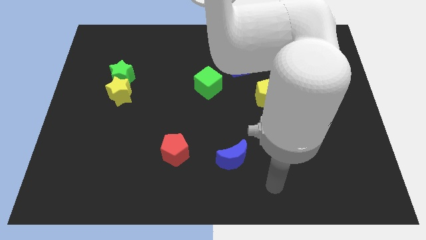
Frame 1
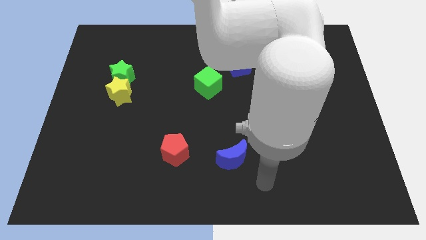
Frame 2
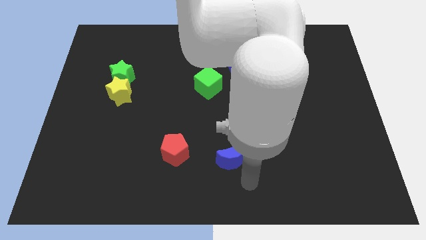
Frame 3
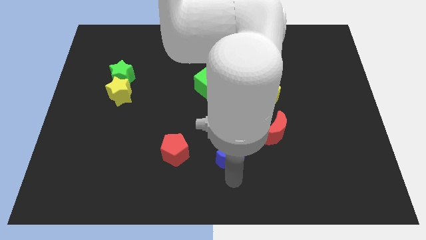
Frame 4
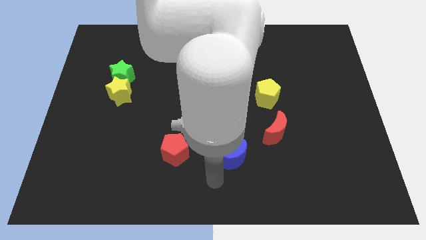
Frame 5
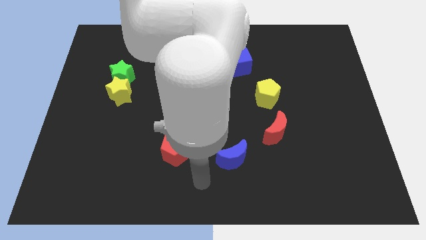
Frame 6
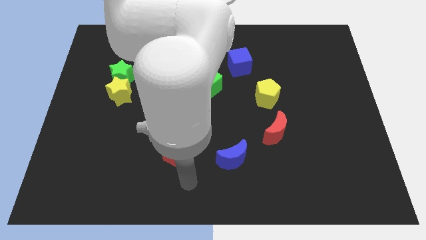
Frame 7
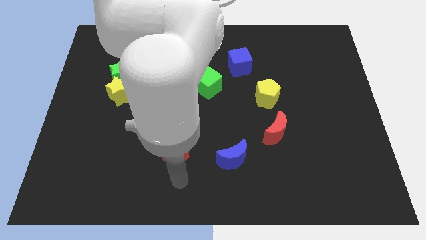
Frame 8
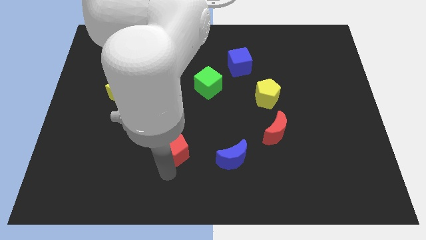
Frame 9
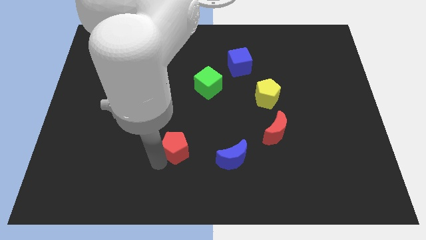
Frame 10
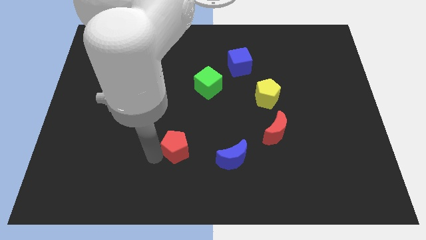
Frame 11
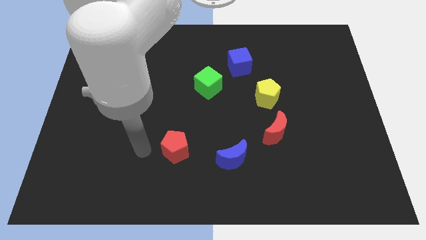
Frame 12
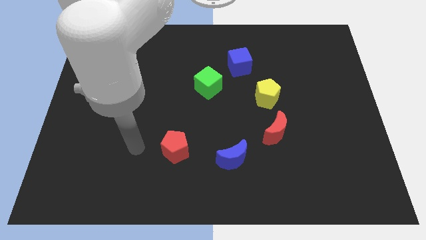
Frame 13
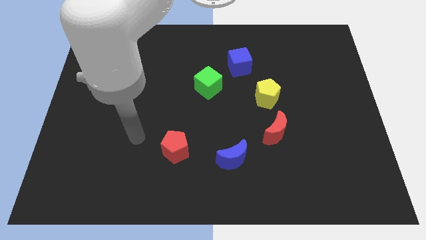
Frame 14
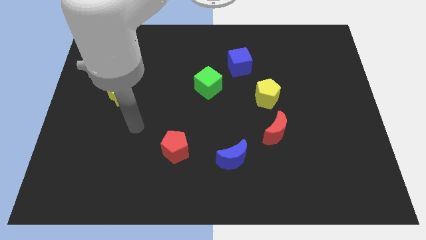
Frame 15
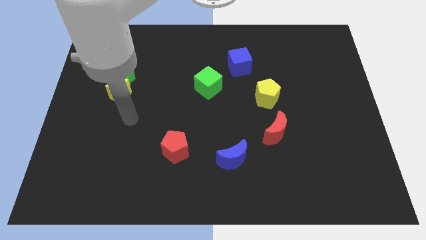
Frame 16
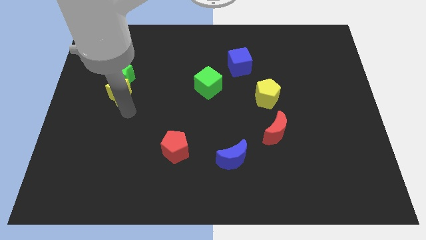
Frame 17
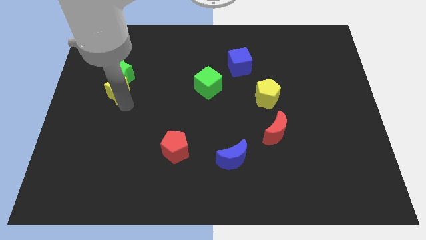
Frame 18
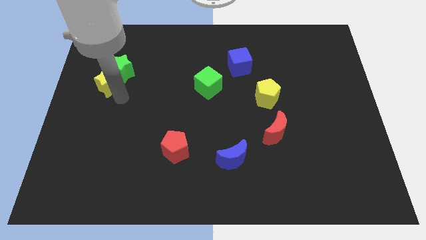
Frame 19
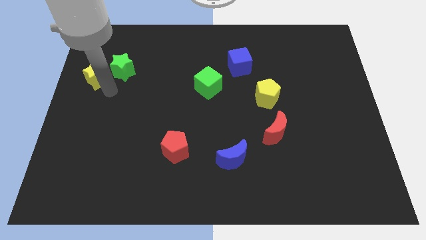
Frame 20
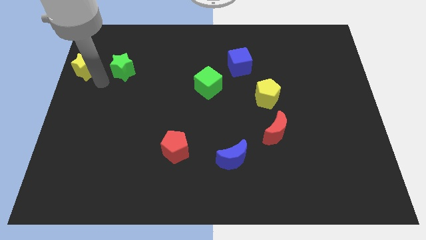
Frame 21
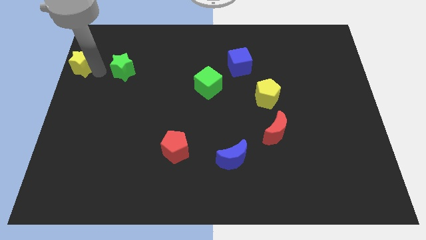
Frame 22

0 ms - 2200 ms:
move the green star away from the yellow star

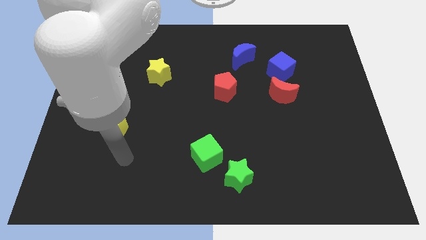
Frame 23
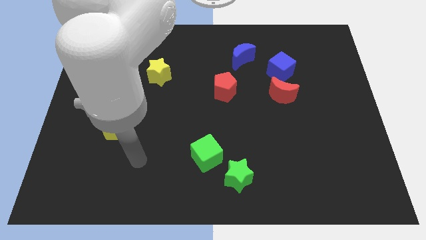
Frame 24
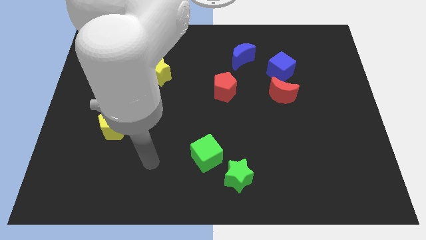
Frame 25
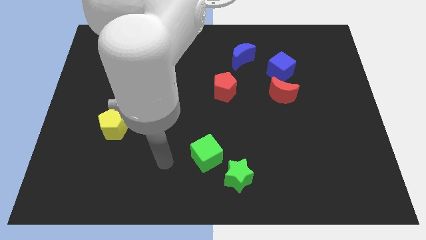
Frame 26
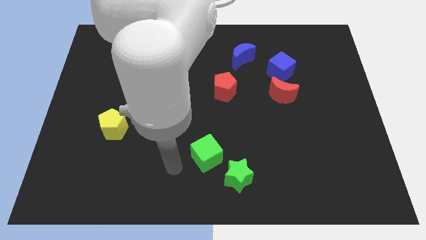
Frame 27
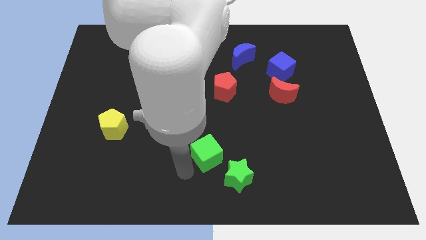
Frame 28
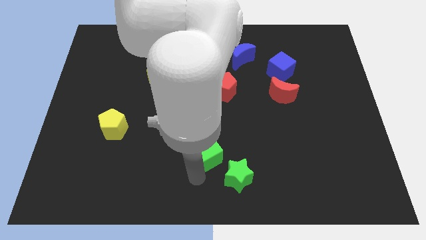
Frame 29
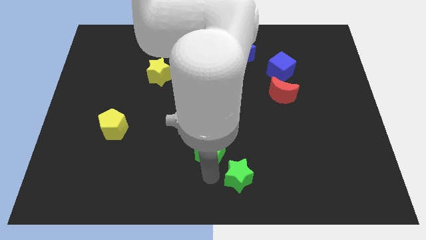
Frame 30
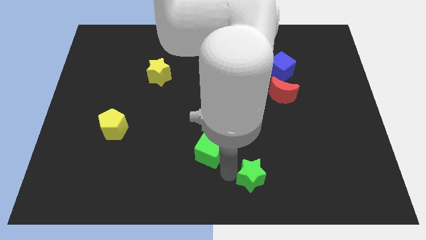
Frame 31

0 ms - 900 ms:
separate the green cube from the green star

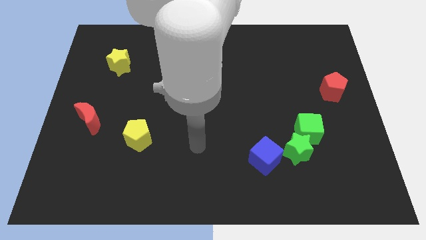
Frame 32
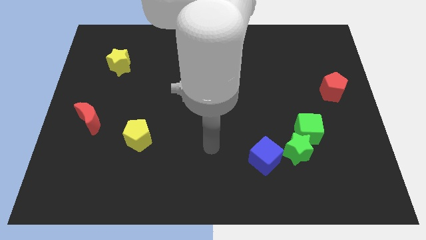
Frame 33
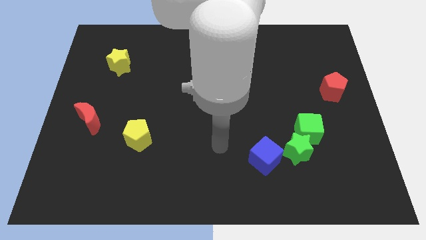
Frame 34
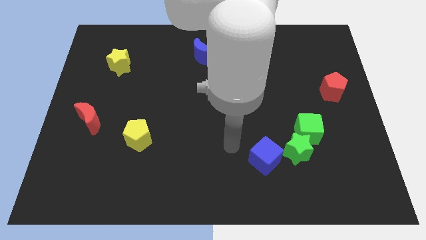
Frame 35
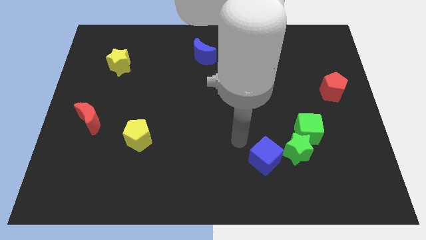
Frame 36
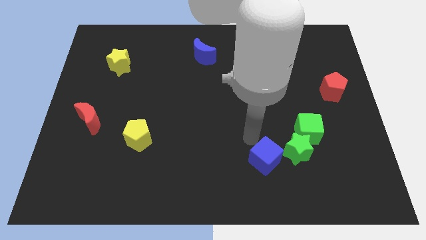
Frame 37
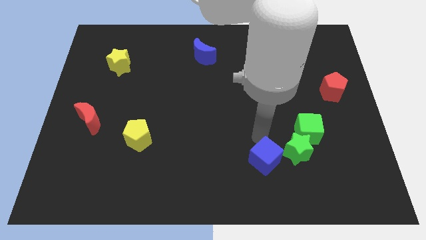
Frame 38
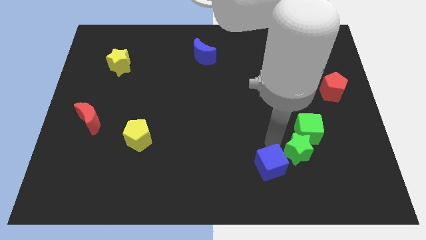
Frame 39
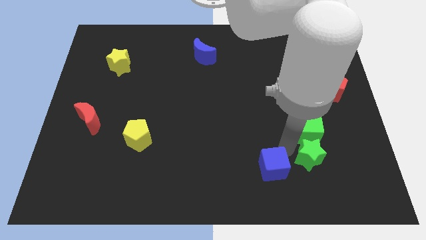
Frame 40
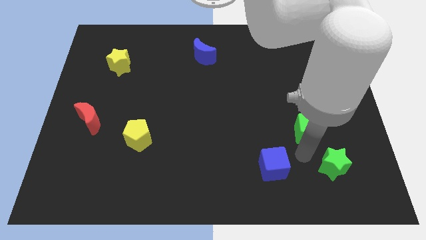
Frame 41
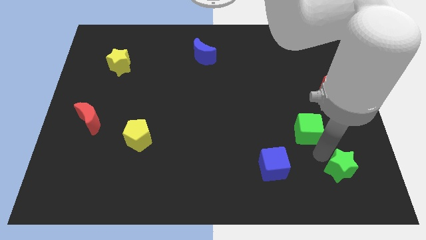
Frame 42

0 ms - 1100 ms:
move the green cube away from the green star

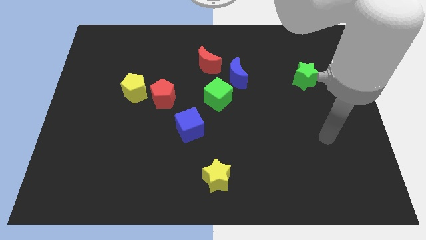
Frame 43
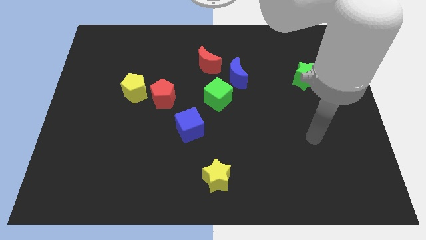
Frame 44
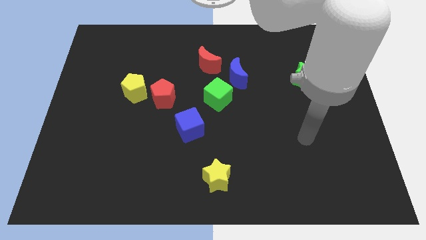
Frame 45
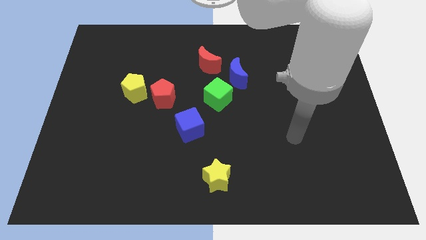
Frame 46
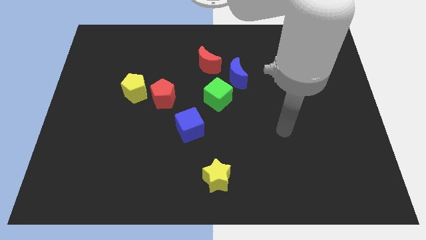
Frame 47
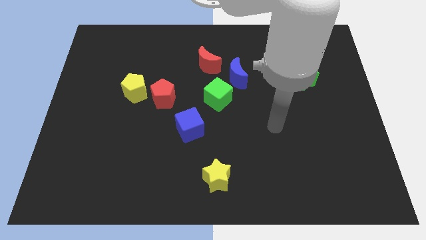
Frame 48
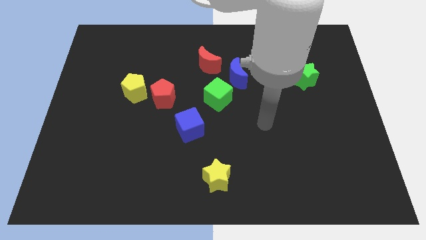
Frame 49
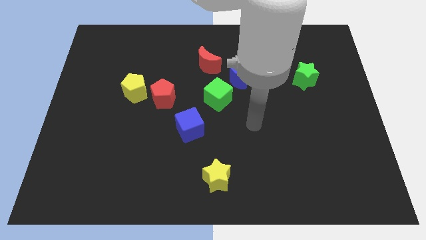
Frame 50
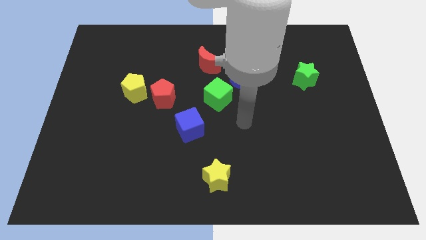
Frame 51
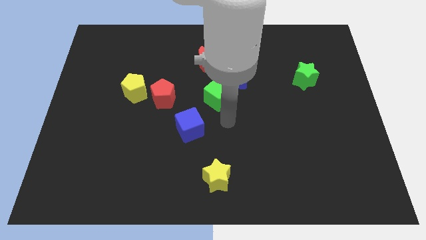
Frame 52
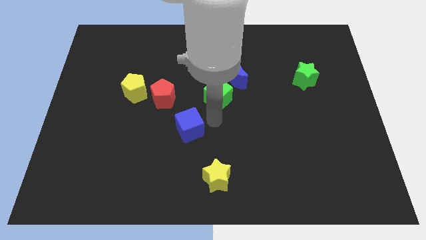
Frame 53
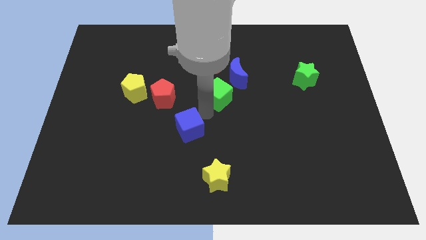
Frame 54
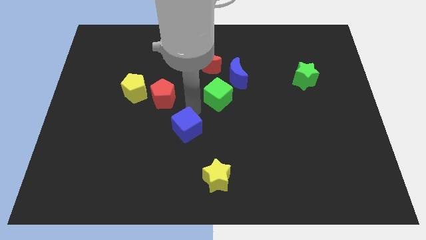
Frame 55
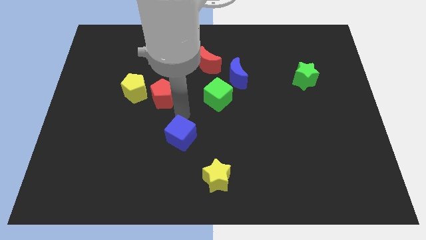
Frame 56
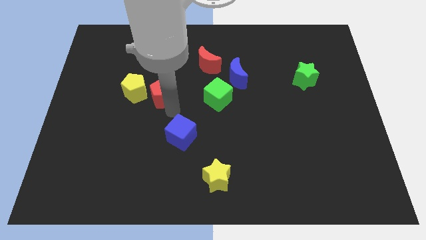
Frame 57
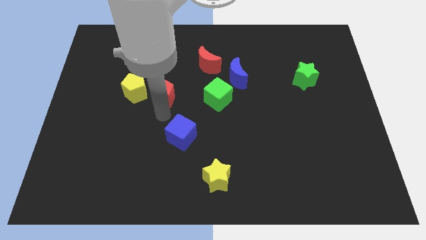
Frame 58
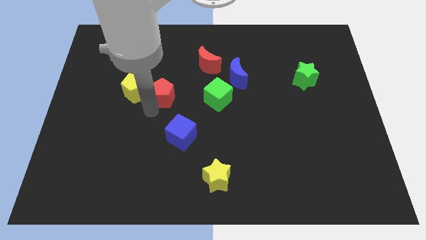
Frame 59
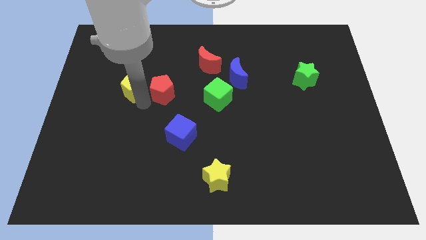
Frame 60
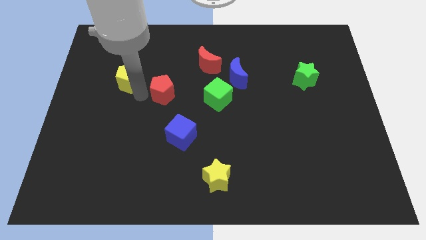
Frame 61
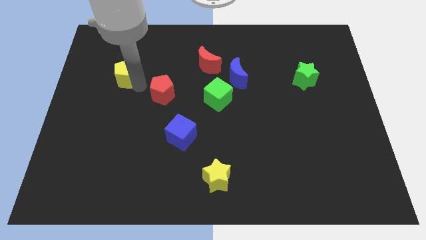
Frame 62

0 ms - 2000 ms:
pull the red pentagon apart from the yellow pentagon

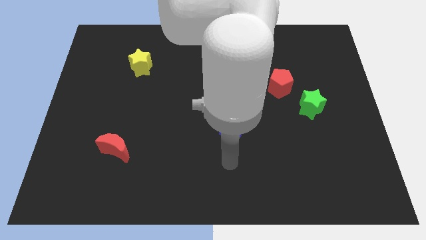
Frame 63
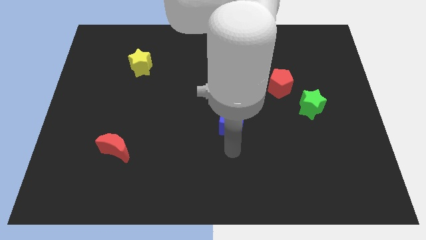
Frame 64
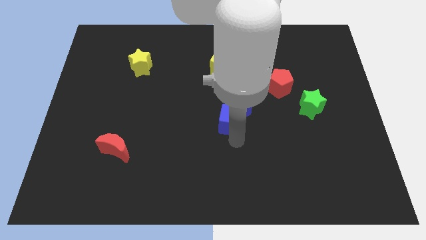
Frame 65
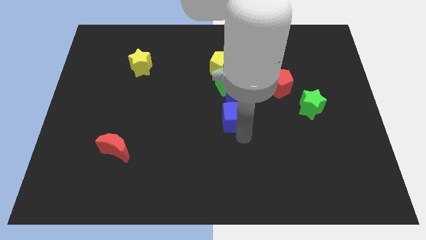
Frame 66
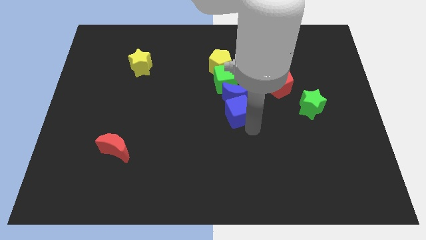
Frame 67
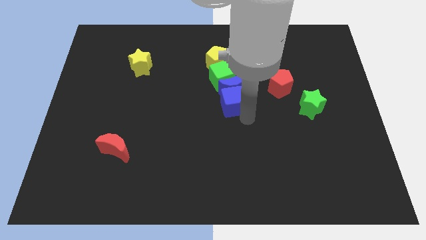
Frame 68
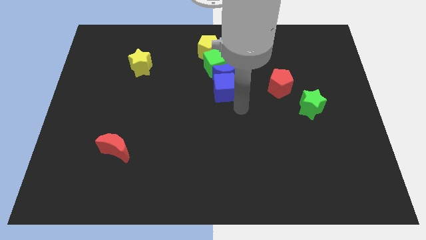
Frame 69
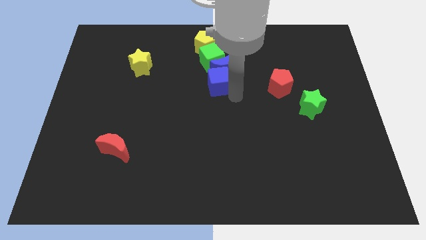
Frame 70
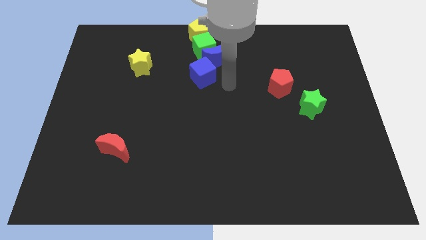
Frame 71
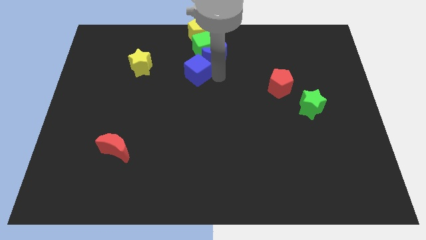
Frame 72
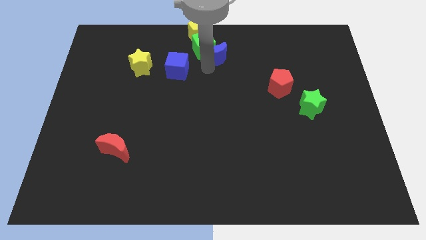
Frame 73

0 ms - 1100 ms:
separate the blue cube from the blue moon

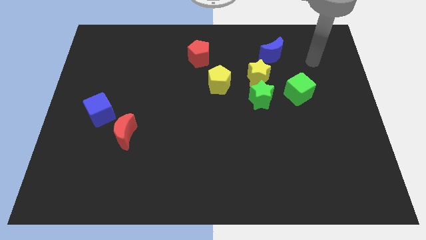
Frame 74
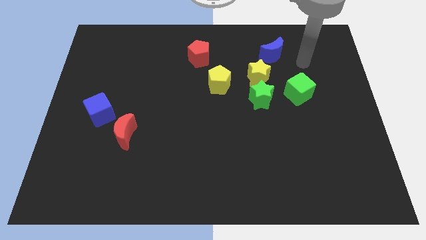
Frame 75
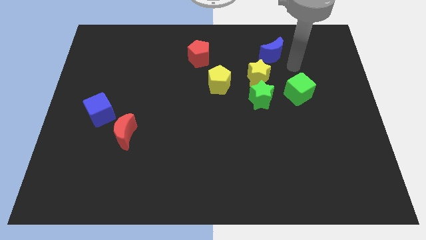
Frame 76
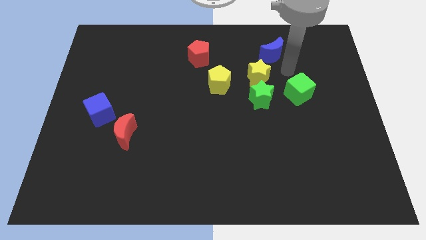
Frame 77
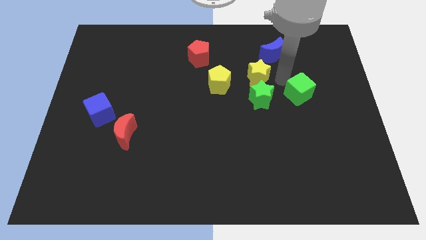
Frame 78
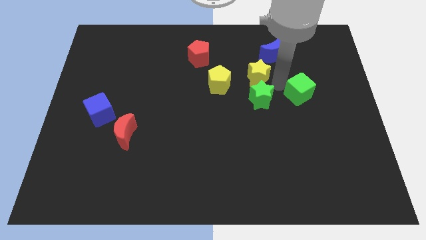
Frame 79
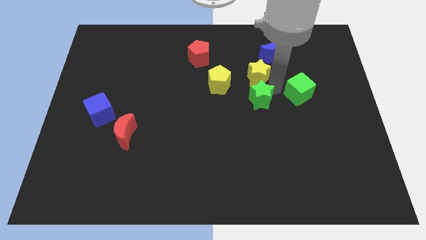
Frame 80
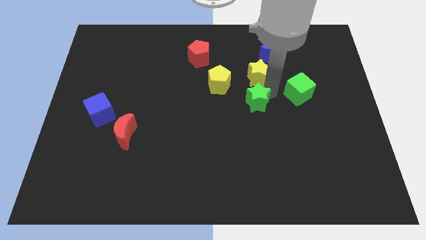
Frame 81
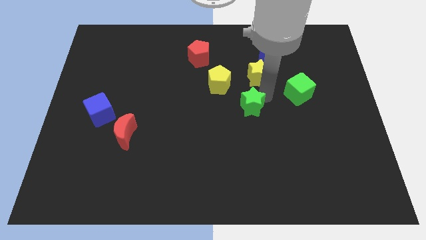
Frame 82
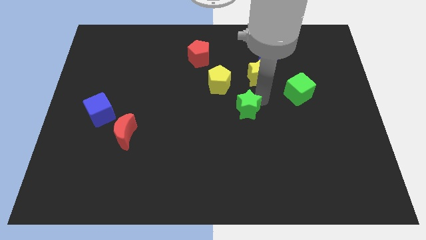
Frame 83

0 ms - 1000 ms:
move the green star away from the yellow star and green cube

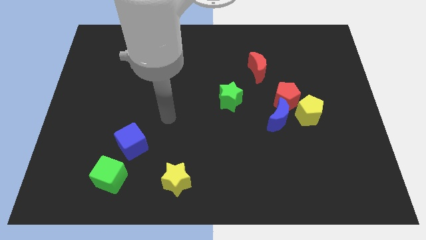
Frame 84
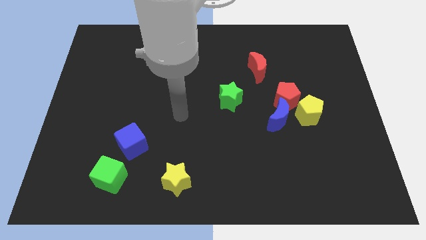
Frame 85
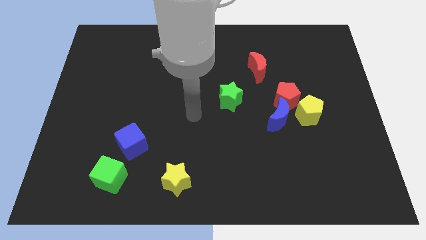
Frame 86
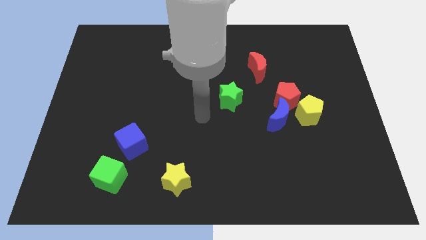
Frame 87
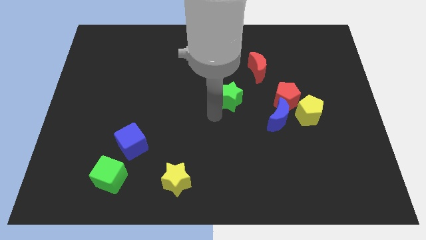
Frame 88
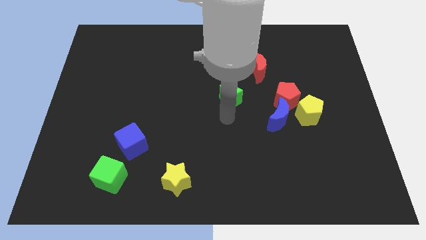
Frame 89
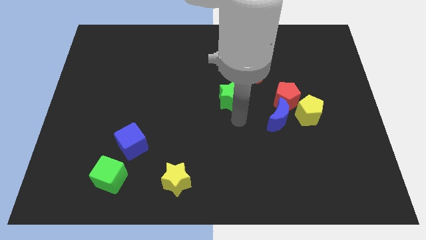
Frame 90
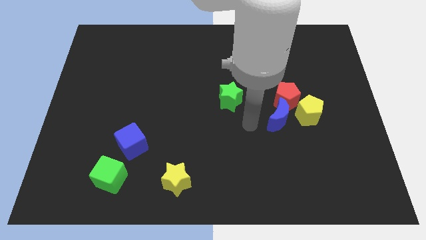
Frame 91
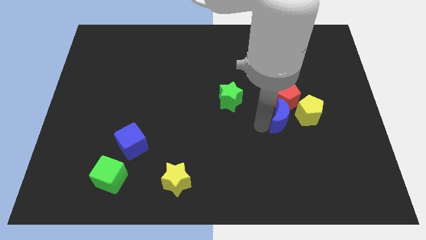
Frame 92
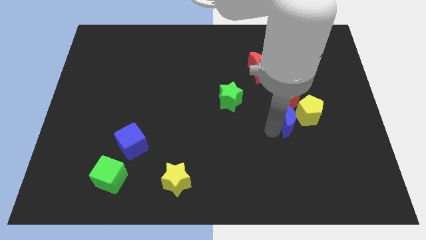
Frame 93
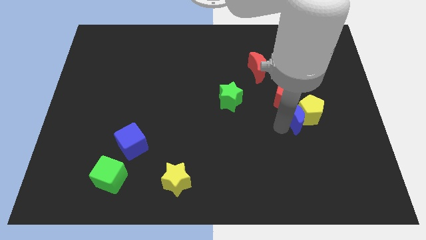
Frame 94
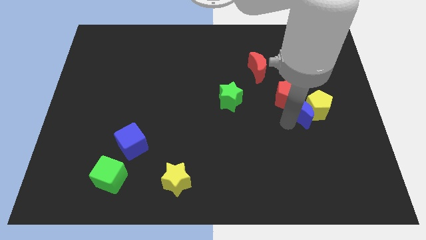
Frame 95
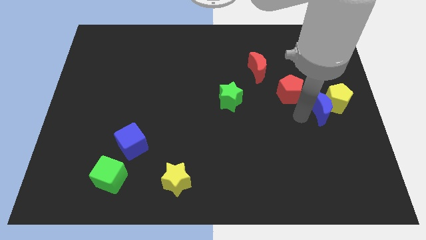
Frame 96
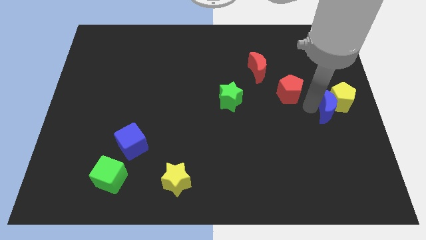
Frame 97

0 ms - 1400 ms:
separate the red pentagon from the blue moon and yellow pentagon
